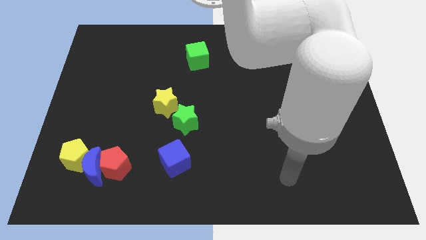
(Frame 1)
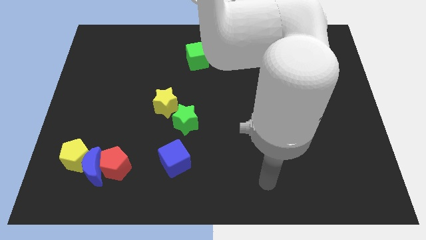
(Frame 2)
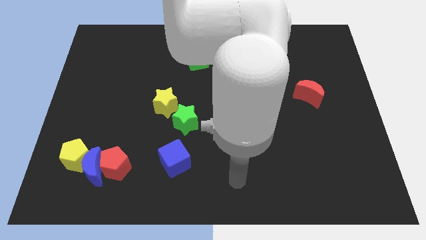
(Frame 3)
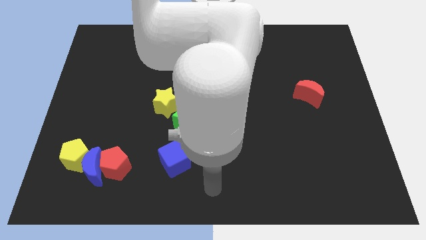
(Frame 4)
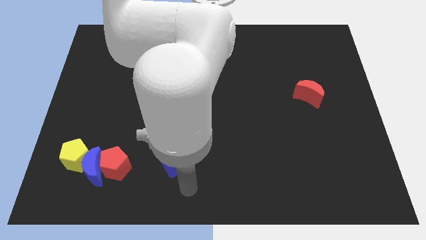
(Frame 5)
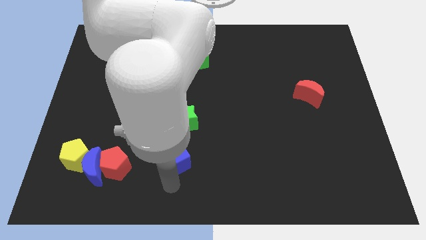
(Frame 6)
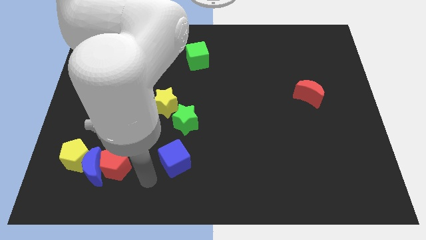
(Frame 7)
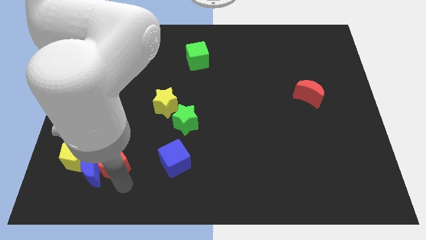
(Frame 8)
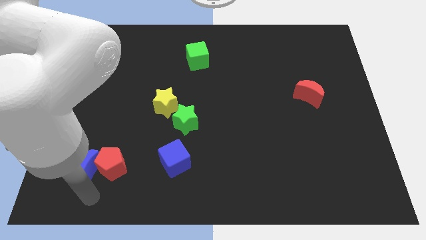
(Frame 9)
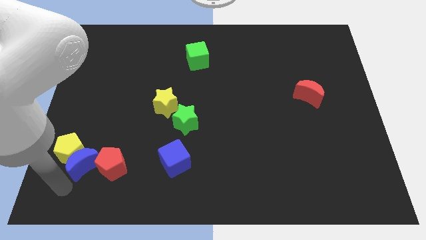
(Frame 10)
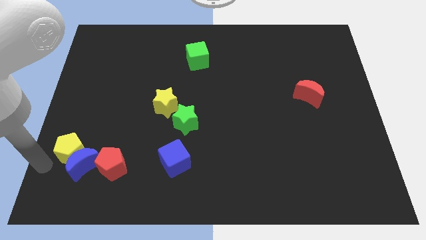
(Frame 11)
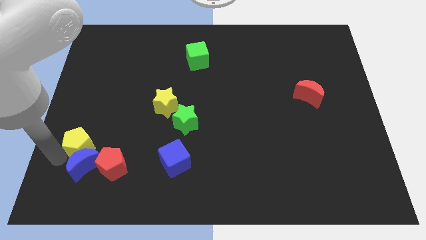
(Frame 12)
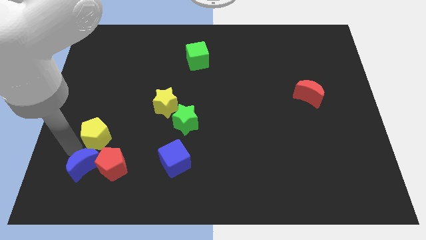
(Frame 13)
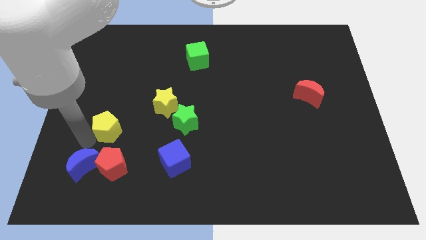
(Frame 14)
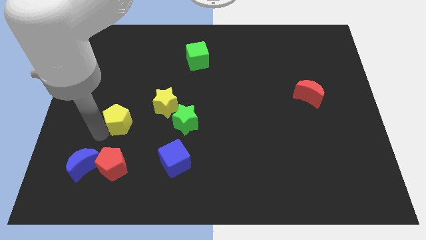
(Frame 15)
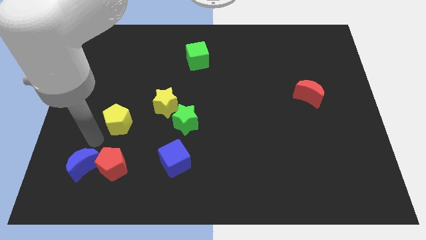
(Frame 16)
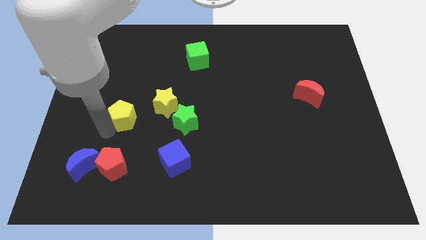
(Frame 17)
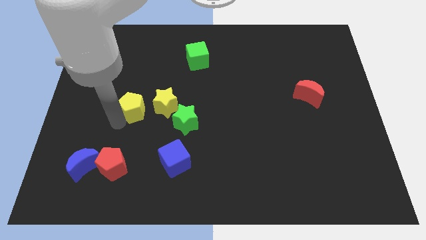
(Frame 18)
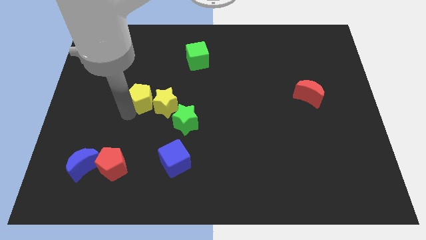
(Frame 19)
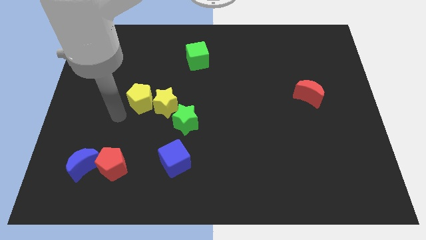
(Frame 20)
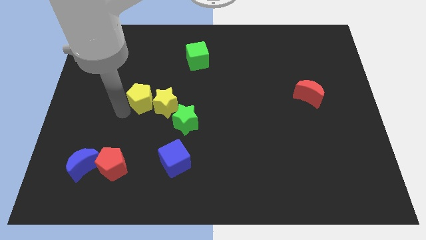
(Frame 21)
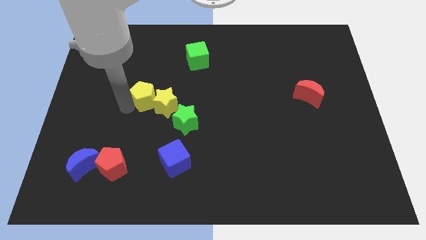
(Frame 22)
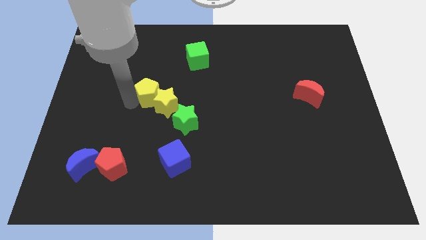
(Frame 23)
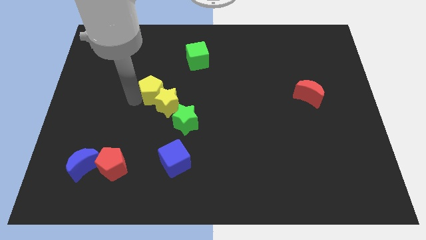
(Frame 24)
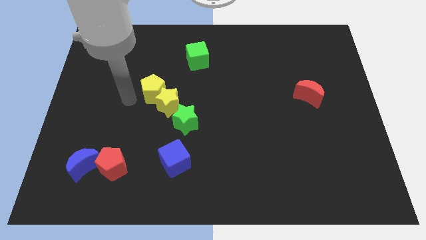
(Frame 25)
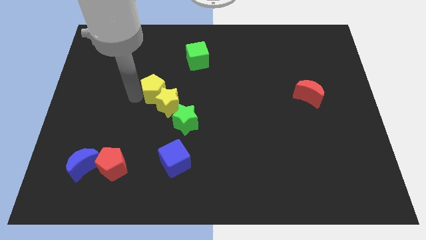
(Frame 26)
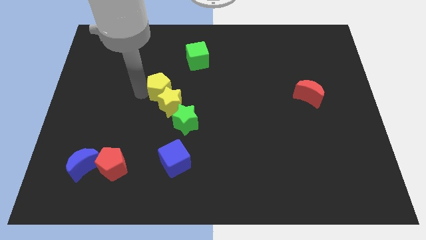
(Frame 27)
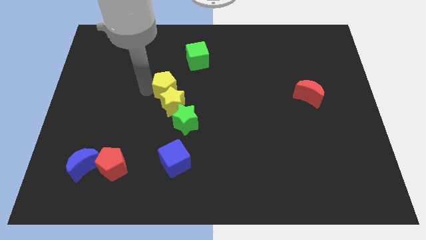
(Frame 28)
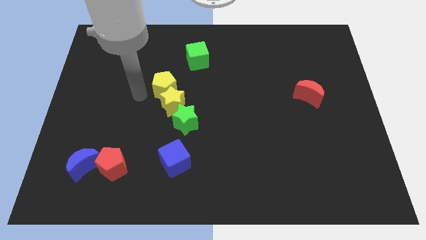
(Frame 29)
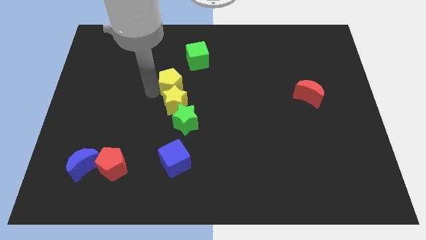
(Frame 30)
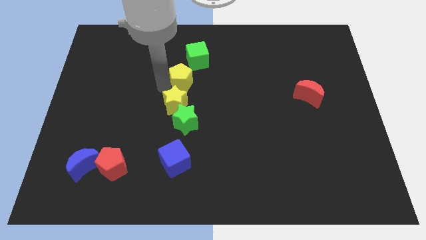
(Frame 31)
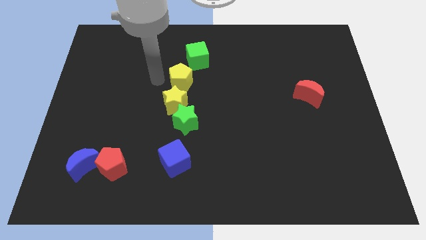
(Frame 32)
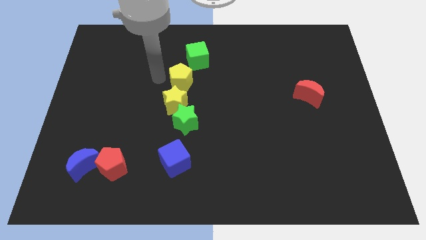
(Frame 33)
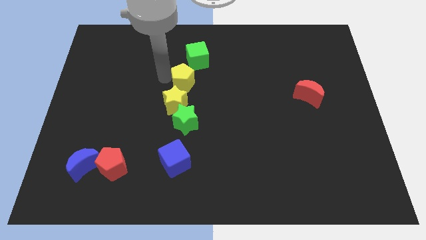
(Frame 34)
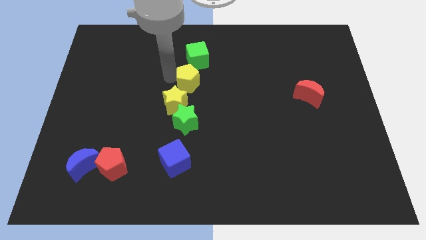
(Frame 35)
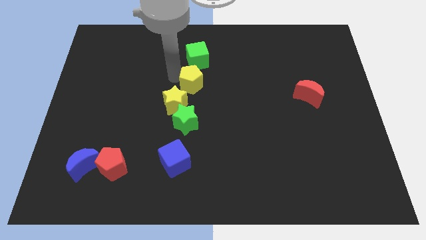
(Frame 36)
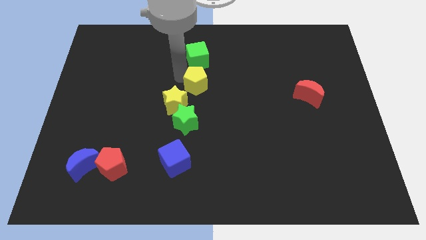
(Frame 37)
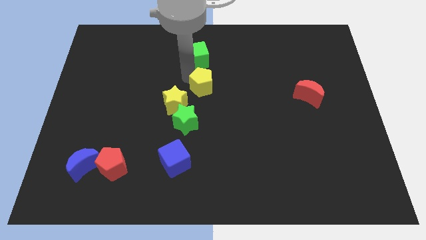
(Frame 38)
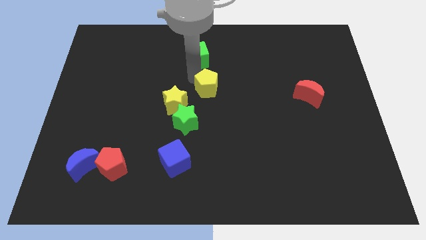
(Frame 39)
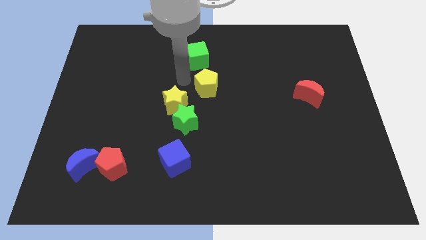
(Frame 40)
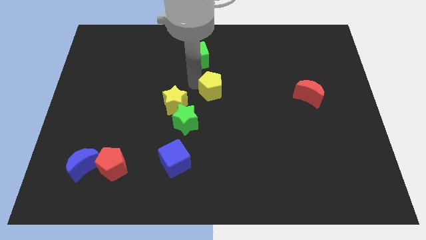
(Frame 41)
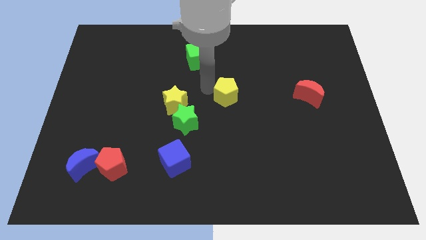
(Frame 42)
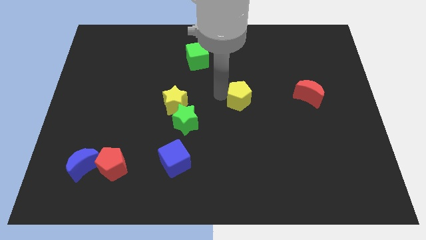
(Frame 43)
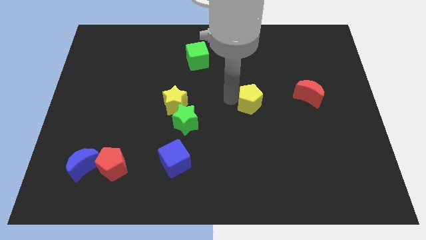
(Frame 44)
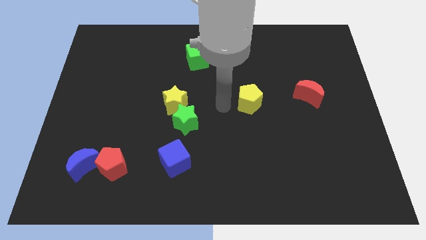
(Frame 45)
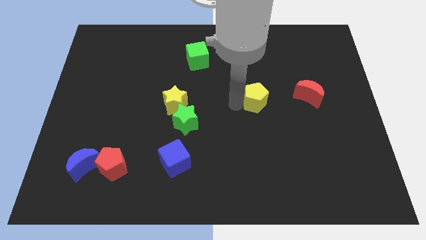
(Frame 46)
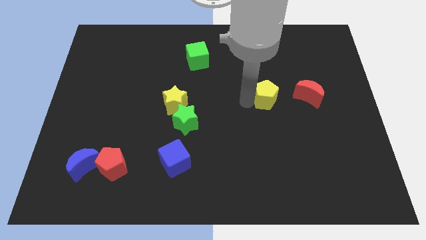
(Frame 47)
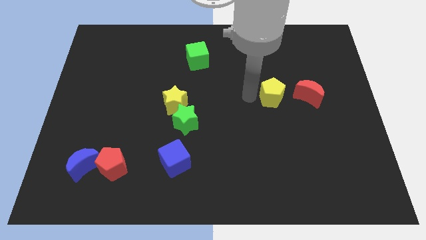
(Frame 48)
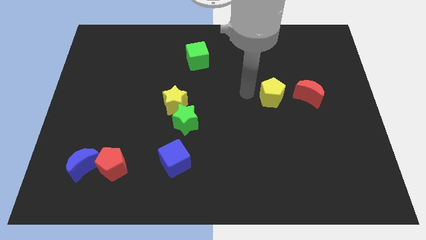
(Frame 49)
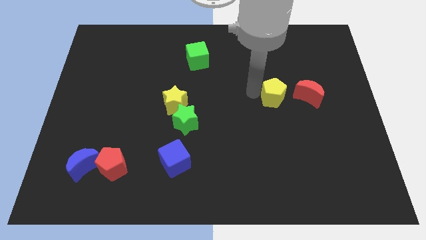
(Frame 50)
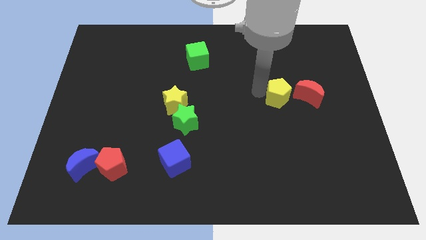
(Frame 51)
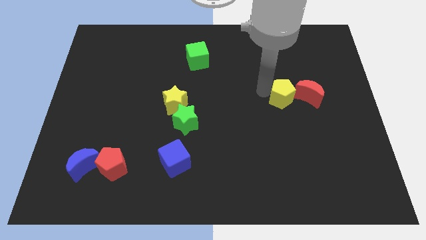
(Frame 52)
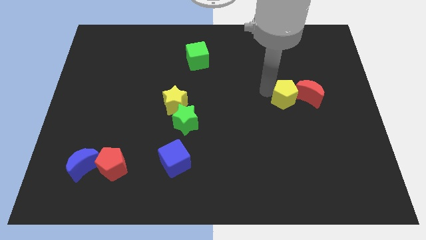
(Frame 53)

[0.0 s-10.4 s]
slide the yellow pentagon towards the red moon

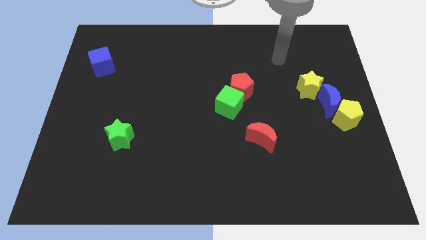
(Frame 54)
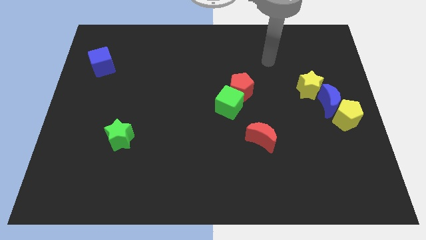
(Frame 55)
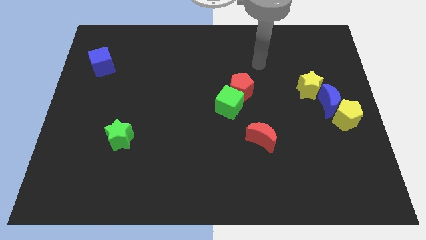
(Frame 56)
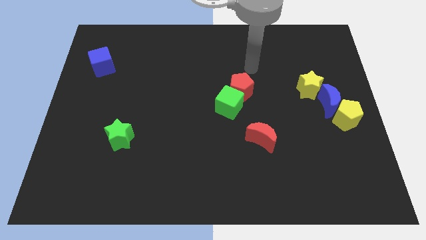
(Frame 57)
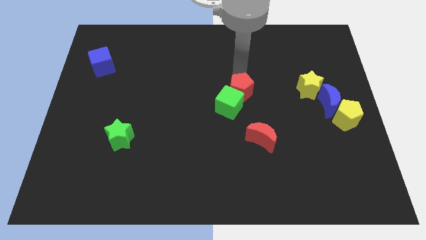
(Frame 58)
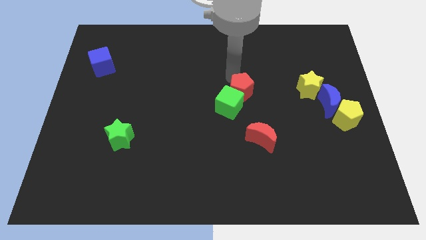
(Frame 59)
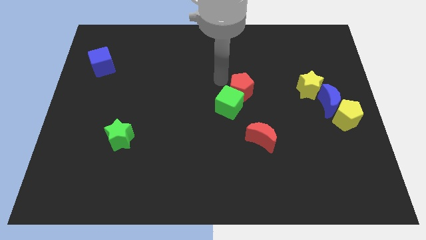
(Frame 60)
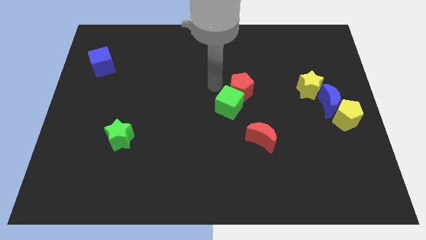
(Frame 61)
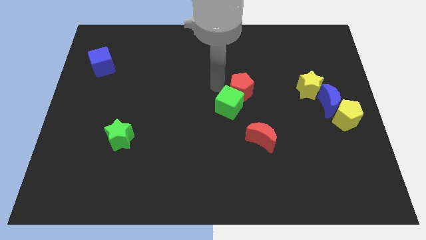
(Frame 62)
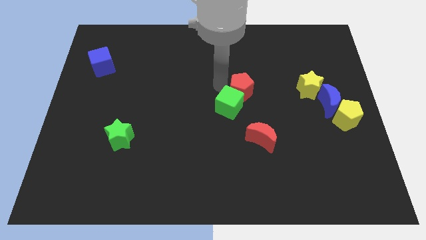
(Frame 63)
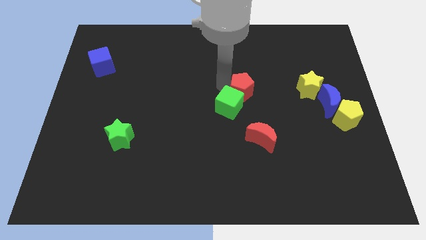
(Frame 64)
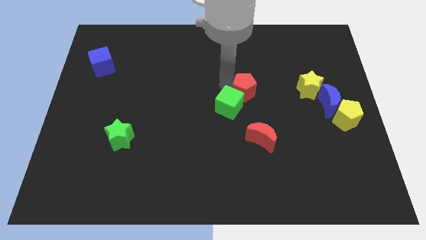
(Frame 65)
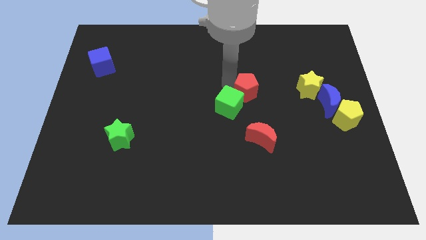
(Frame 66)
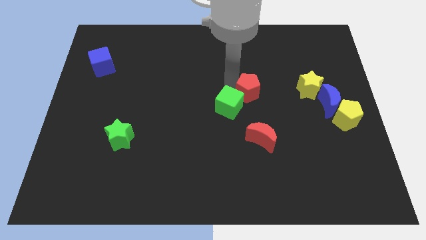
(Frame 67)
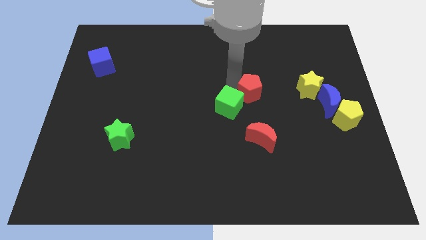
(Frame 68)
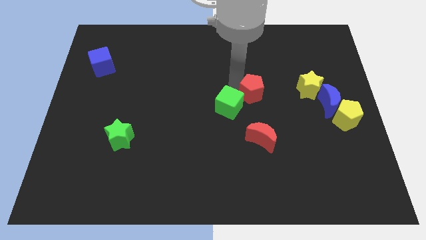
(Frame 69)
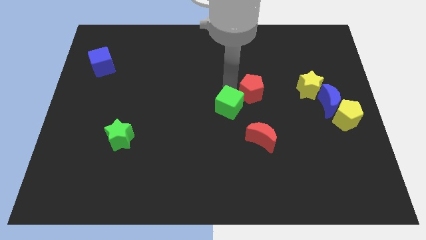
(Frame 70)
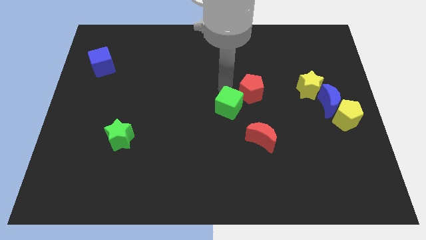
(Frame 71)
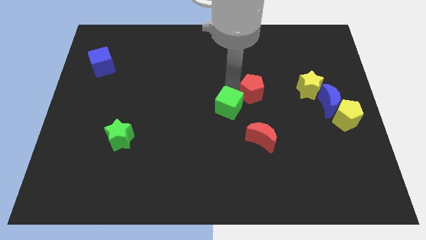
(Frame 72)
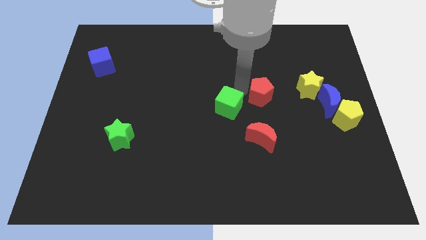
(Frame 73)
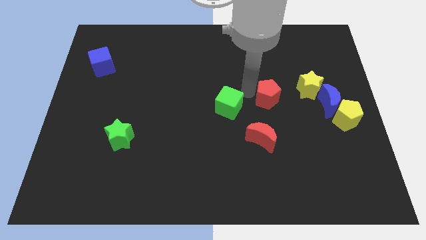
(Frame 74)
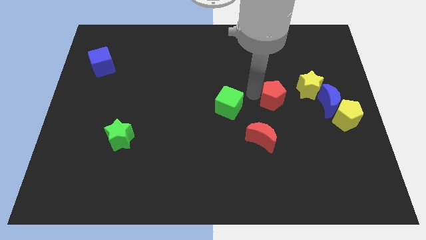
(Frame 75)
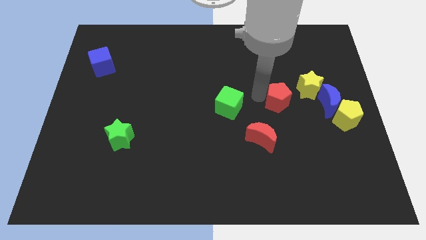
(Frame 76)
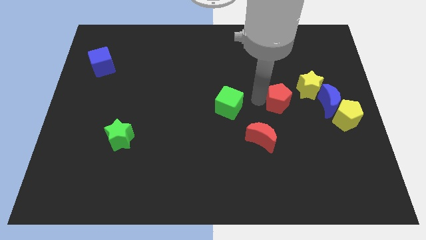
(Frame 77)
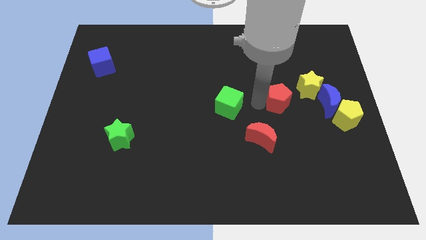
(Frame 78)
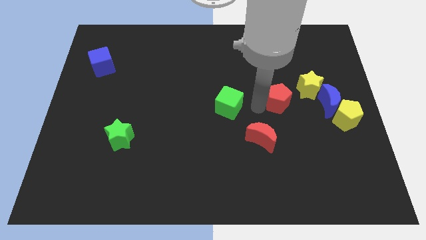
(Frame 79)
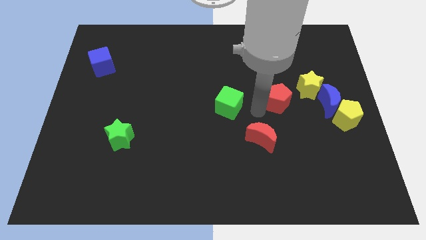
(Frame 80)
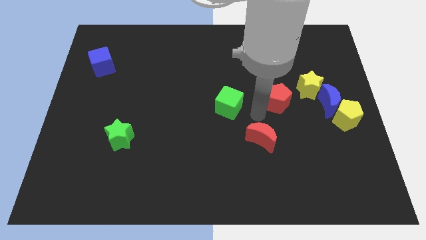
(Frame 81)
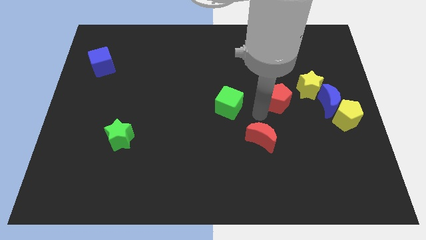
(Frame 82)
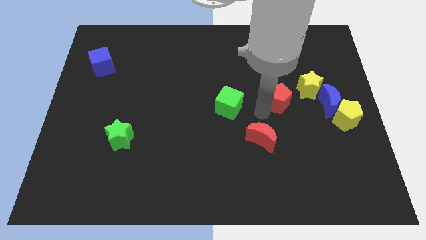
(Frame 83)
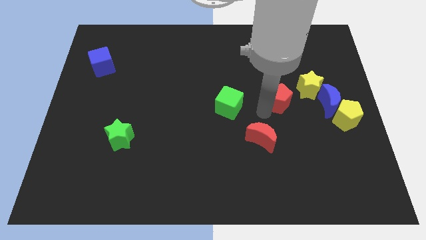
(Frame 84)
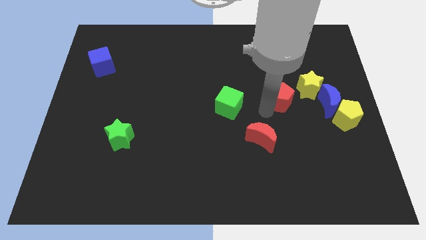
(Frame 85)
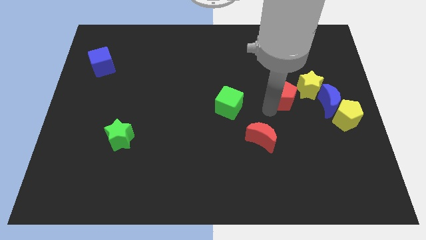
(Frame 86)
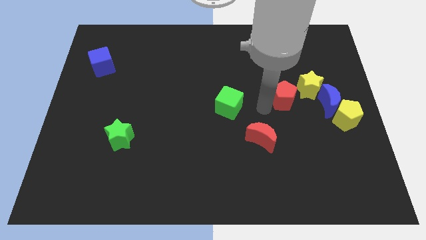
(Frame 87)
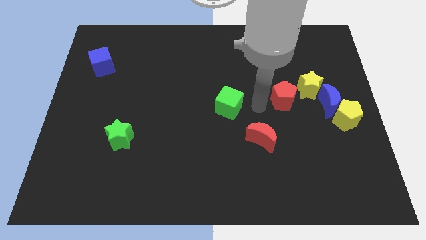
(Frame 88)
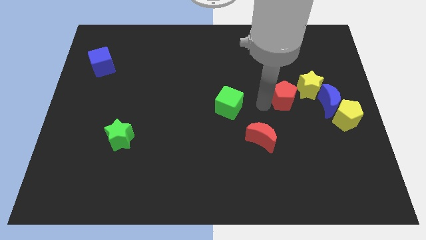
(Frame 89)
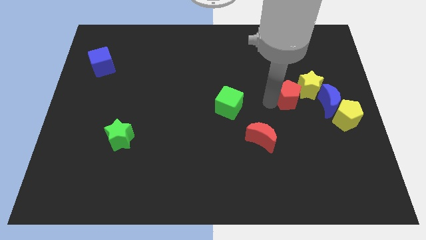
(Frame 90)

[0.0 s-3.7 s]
slide the red pentagon next to the yellow star
